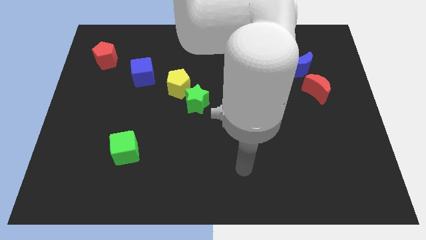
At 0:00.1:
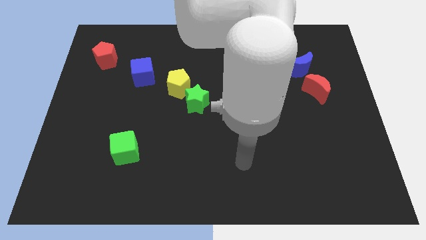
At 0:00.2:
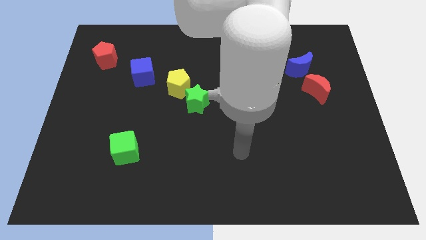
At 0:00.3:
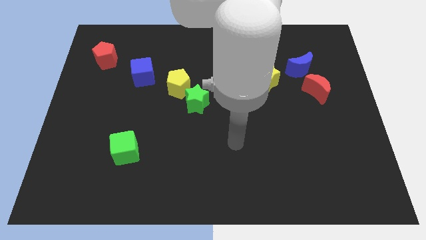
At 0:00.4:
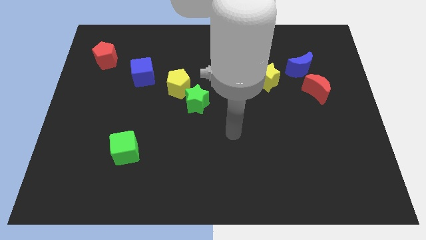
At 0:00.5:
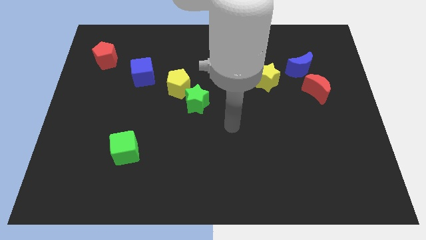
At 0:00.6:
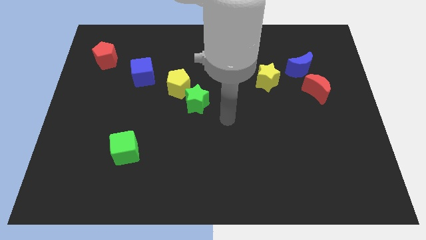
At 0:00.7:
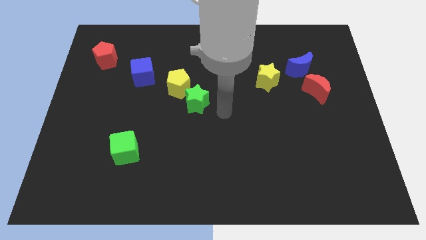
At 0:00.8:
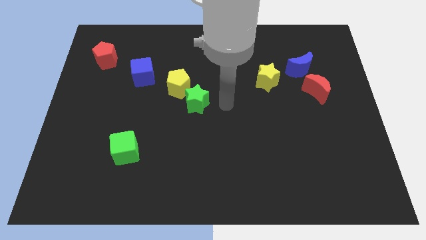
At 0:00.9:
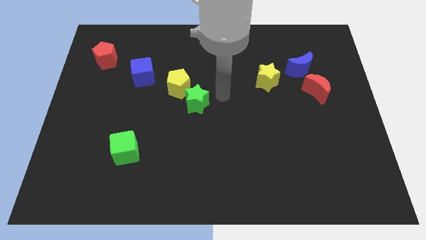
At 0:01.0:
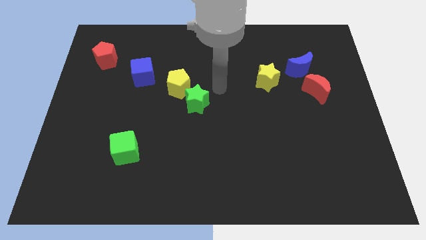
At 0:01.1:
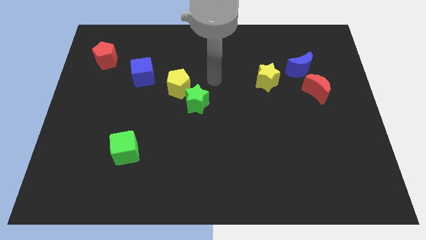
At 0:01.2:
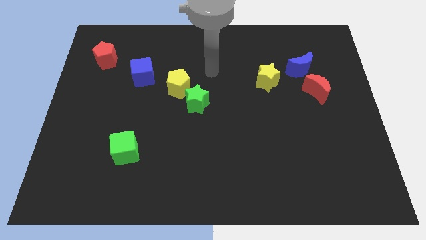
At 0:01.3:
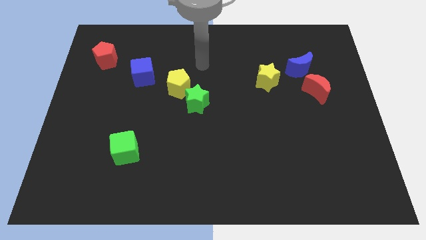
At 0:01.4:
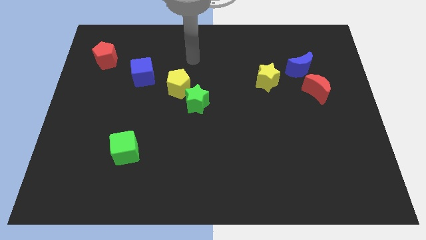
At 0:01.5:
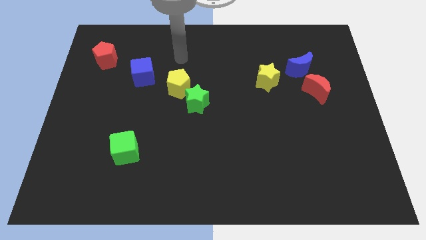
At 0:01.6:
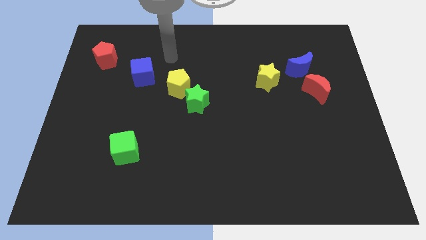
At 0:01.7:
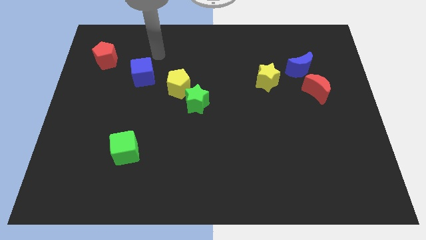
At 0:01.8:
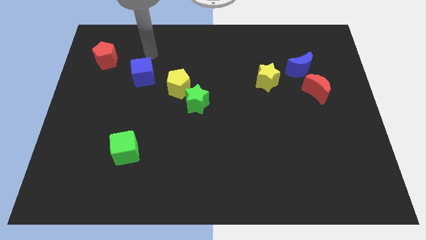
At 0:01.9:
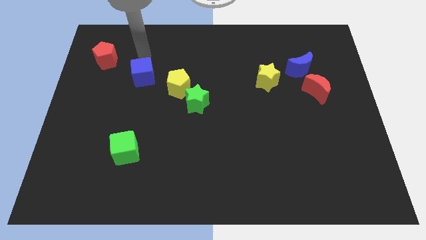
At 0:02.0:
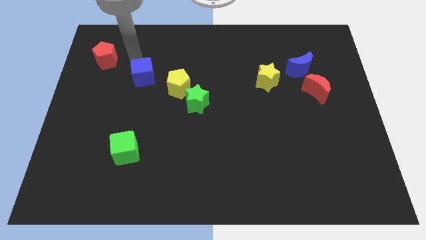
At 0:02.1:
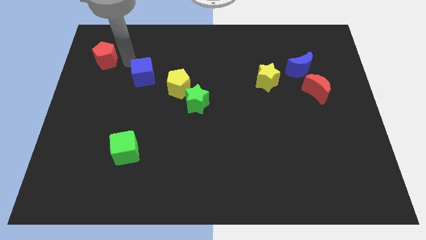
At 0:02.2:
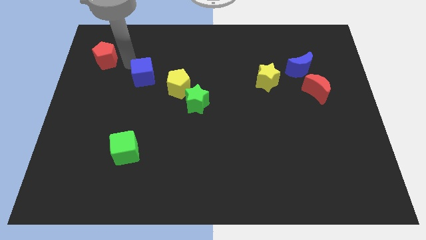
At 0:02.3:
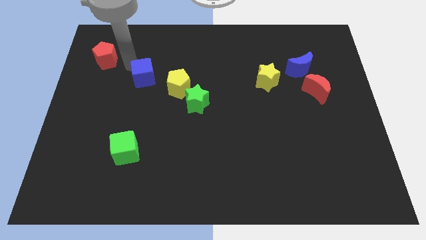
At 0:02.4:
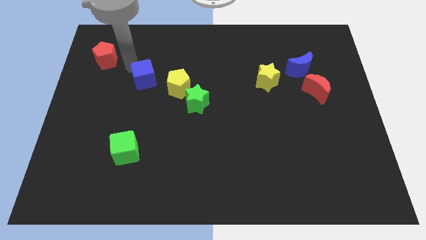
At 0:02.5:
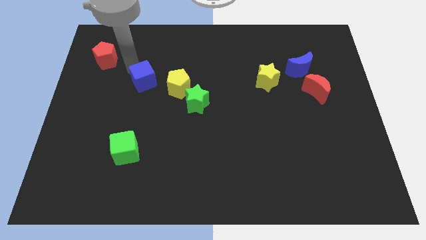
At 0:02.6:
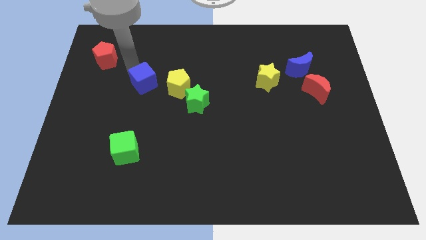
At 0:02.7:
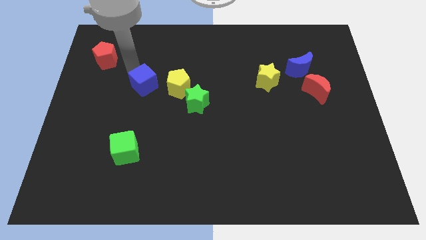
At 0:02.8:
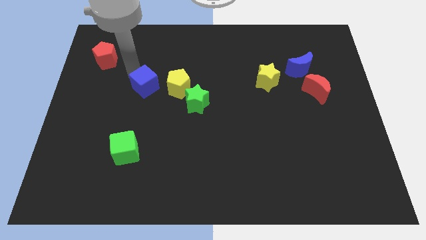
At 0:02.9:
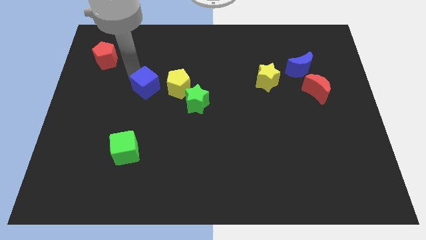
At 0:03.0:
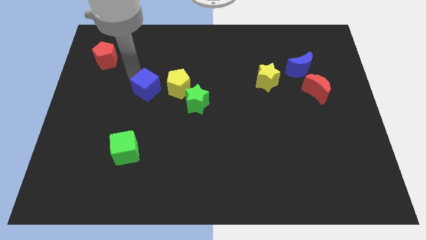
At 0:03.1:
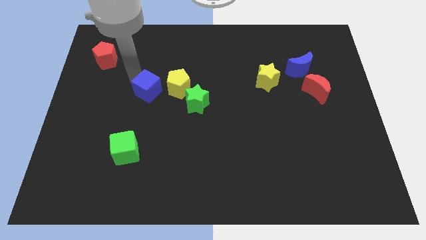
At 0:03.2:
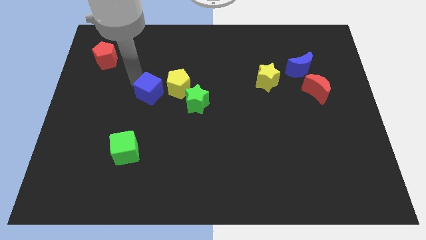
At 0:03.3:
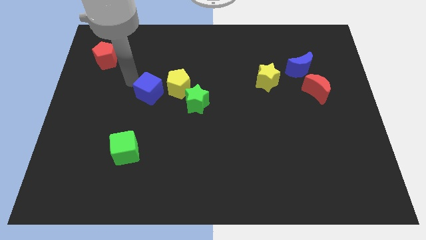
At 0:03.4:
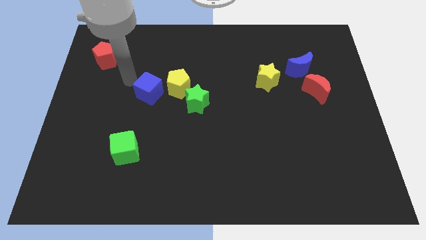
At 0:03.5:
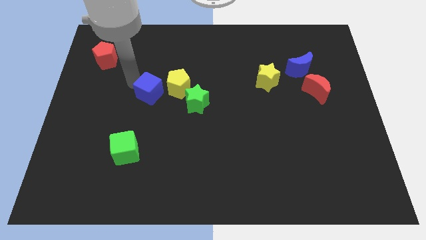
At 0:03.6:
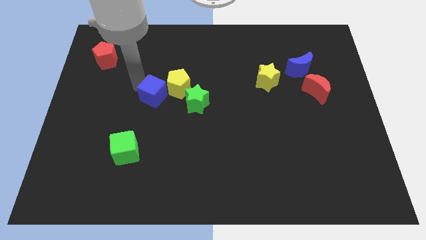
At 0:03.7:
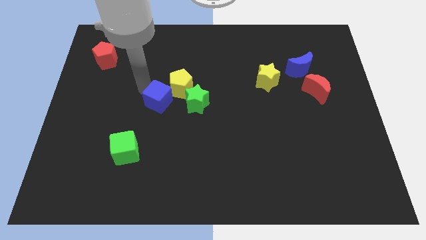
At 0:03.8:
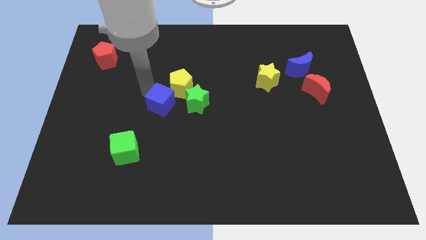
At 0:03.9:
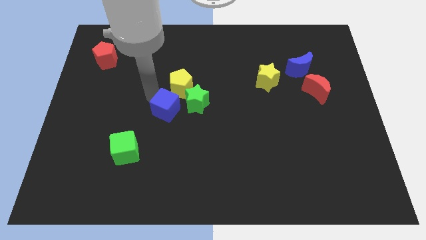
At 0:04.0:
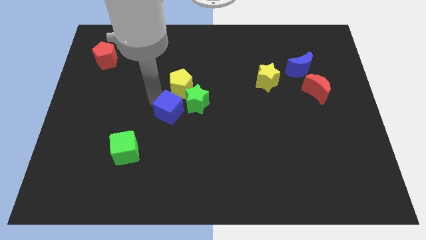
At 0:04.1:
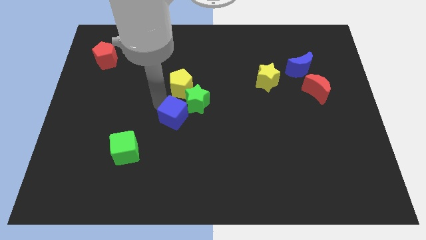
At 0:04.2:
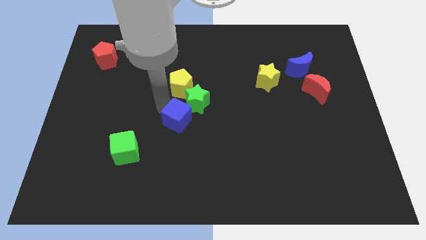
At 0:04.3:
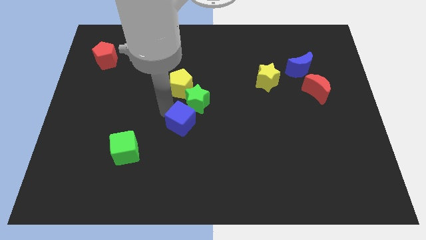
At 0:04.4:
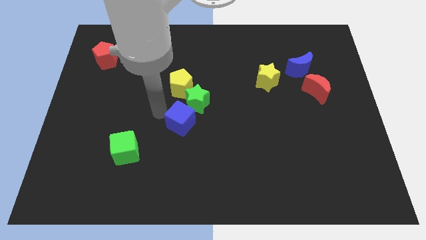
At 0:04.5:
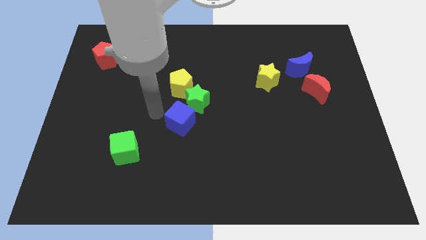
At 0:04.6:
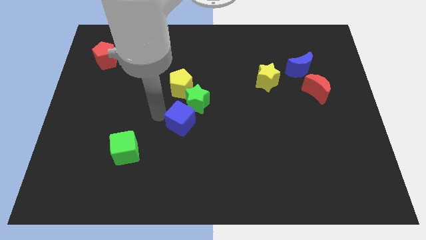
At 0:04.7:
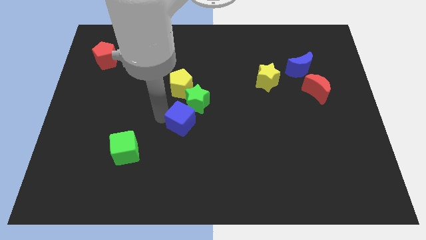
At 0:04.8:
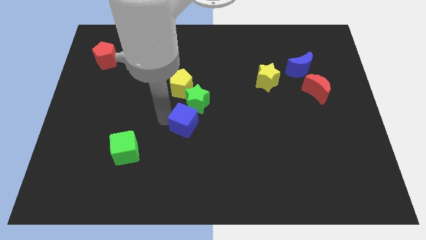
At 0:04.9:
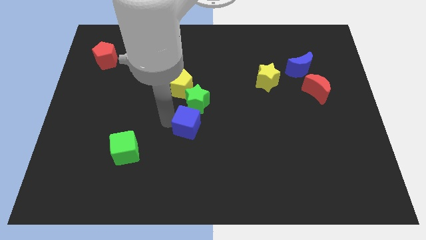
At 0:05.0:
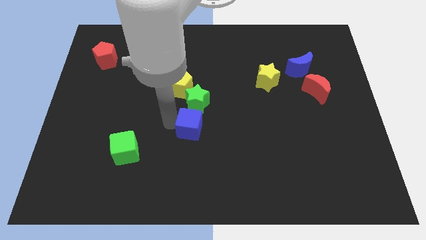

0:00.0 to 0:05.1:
move the blue cube down and then right

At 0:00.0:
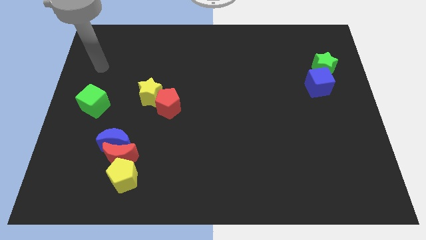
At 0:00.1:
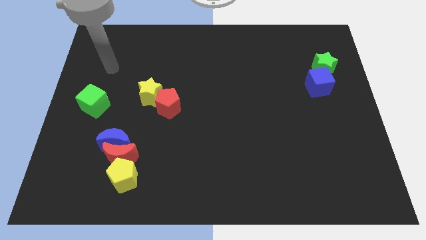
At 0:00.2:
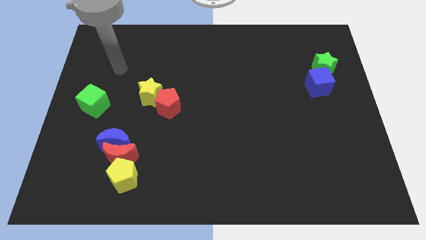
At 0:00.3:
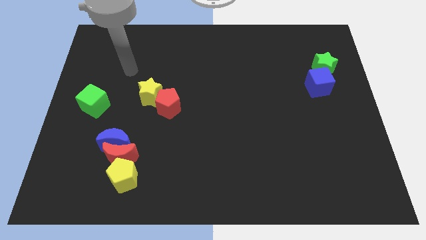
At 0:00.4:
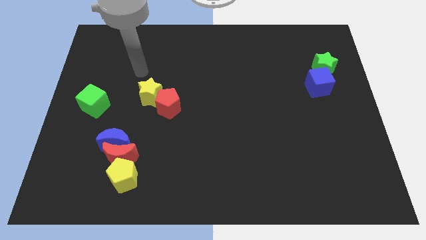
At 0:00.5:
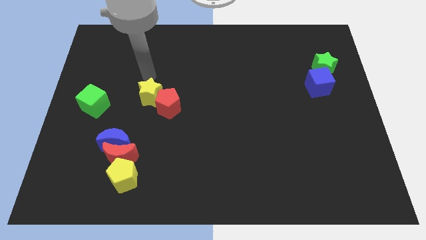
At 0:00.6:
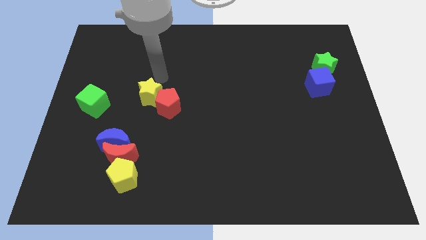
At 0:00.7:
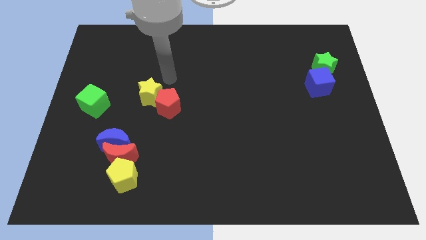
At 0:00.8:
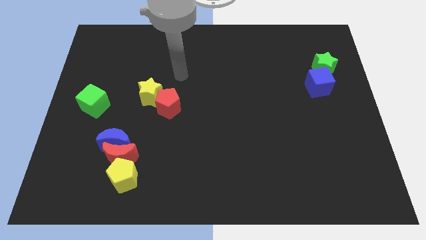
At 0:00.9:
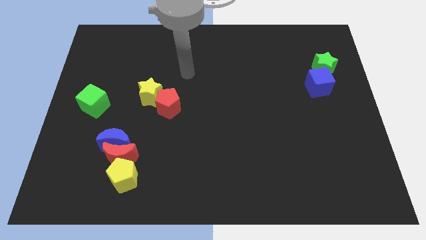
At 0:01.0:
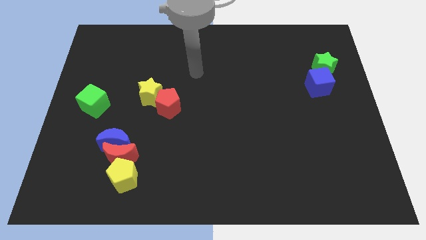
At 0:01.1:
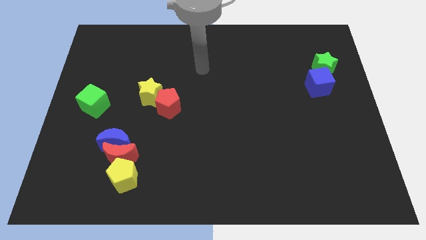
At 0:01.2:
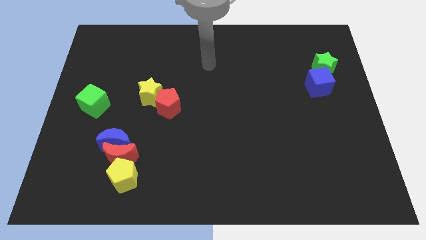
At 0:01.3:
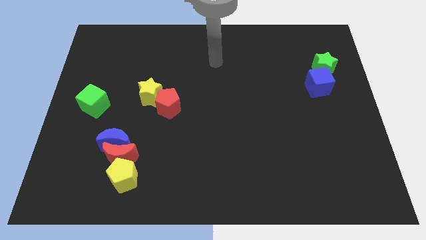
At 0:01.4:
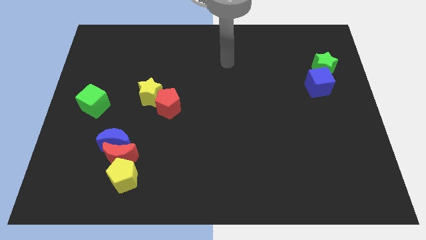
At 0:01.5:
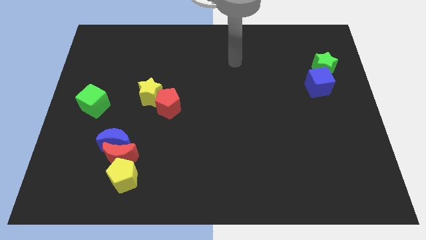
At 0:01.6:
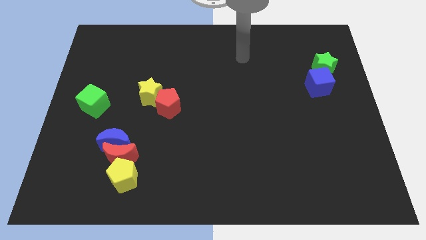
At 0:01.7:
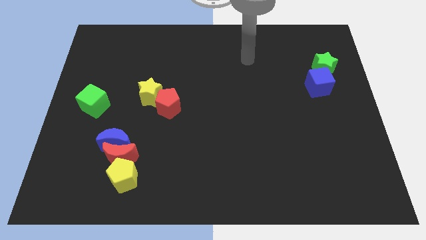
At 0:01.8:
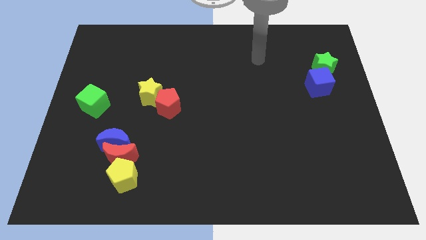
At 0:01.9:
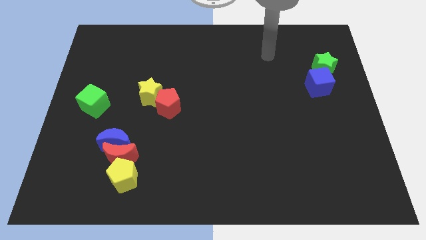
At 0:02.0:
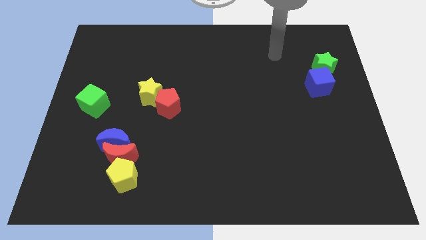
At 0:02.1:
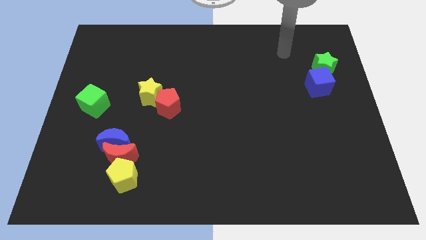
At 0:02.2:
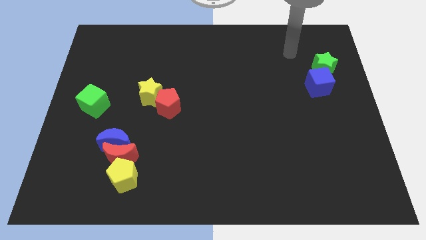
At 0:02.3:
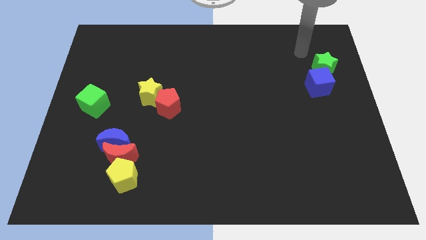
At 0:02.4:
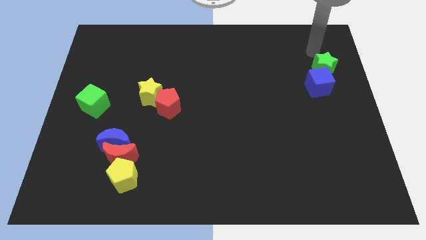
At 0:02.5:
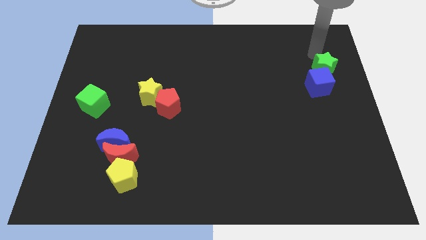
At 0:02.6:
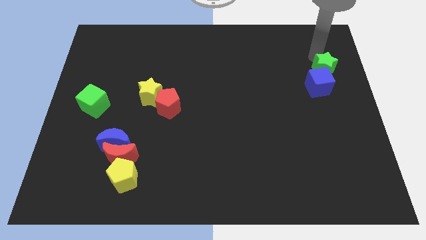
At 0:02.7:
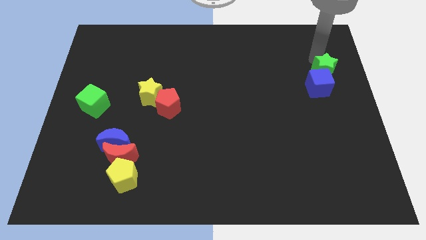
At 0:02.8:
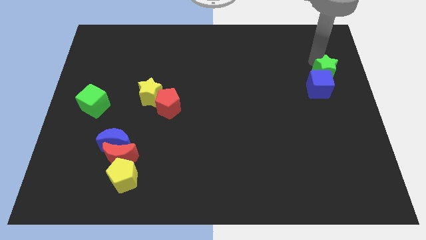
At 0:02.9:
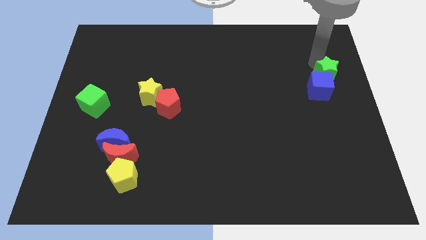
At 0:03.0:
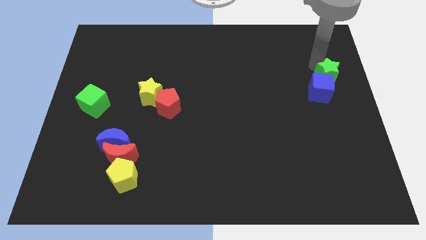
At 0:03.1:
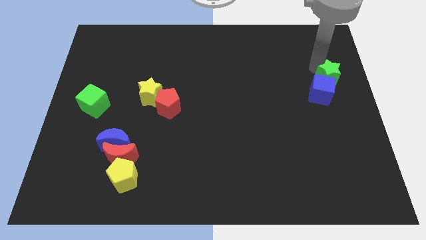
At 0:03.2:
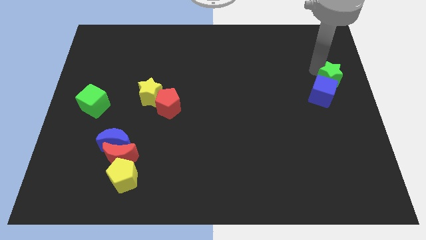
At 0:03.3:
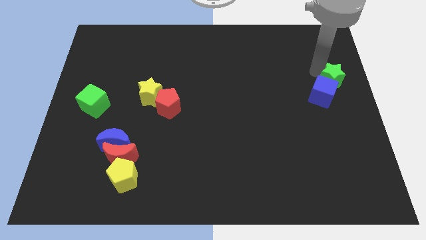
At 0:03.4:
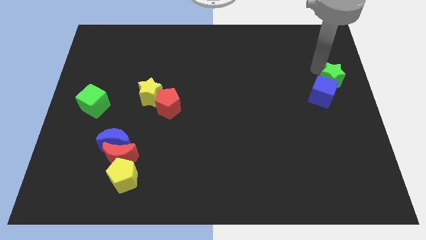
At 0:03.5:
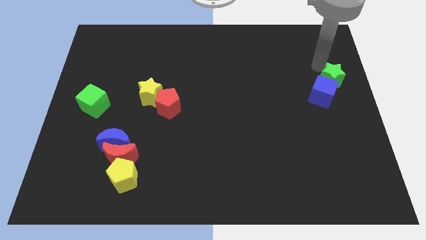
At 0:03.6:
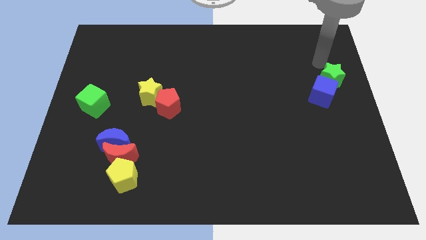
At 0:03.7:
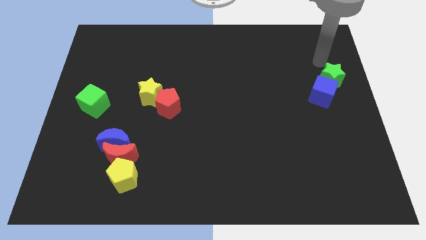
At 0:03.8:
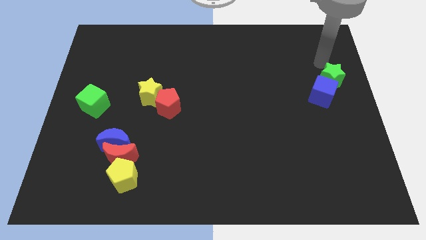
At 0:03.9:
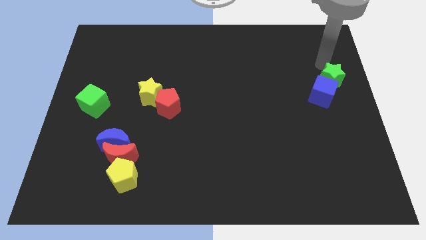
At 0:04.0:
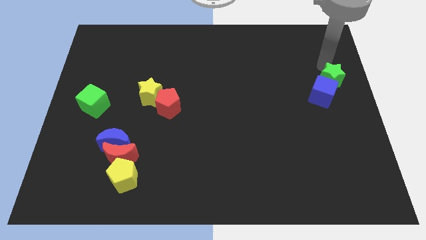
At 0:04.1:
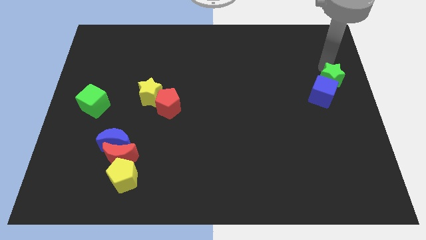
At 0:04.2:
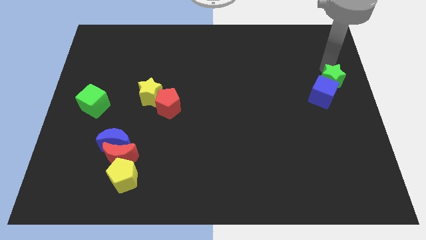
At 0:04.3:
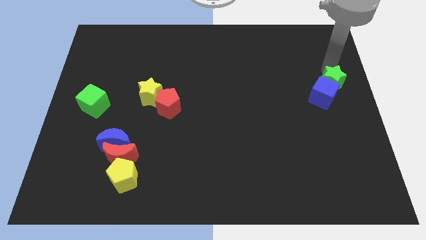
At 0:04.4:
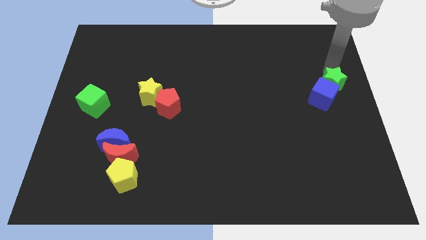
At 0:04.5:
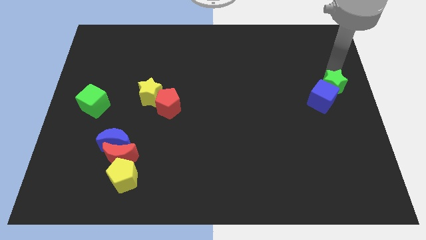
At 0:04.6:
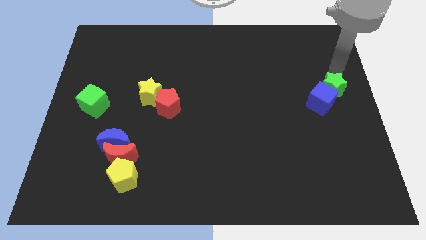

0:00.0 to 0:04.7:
slightly slide the green star down
